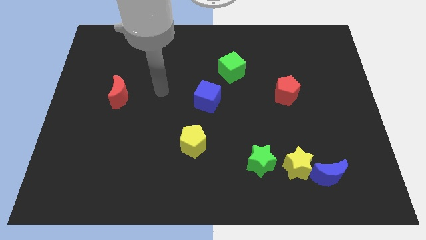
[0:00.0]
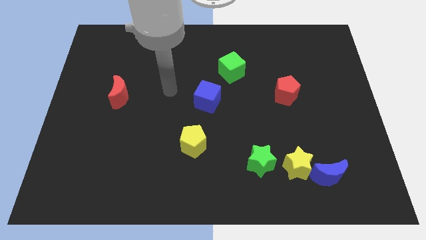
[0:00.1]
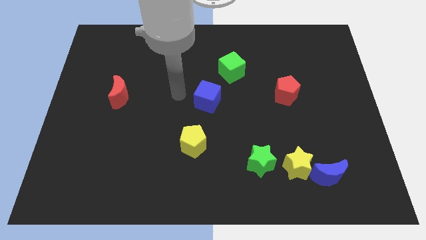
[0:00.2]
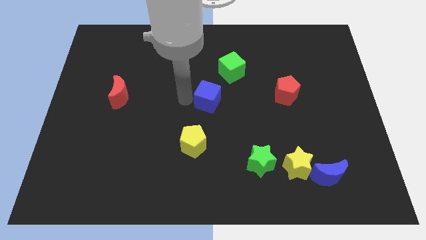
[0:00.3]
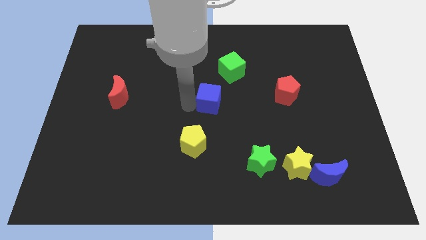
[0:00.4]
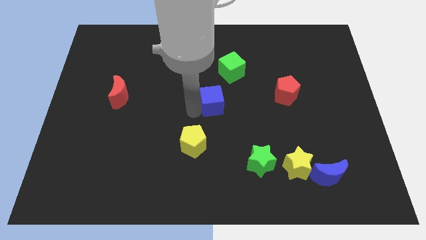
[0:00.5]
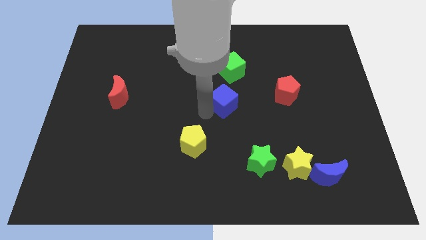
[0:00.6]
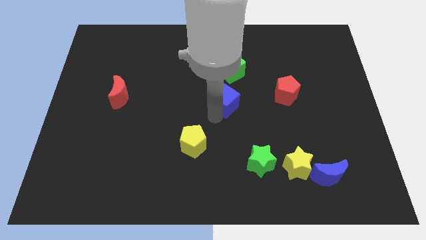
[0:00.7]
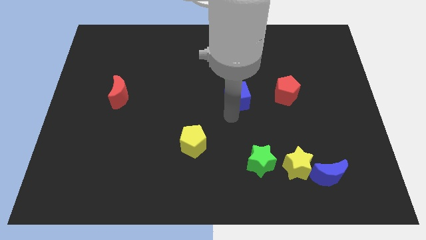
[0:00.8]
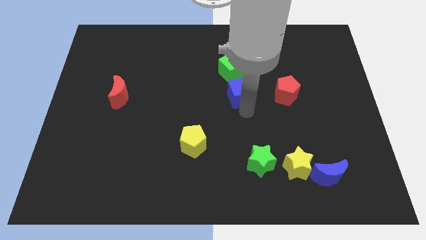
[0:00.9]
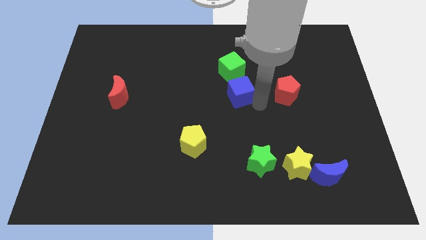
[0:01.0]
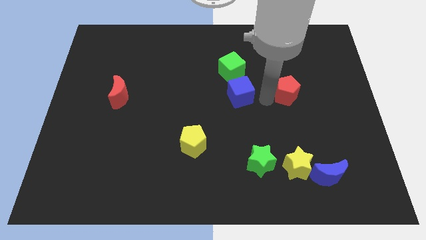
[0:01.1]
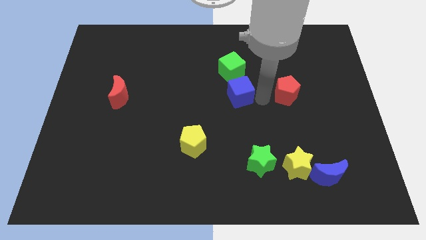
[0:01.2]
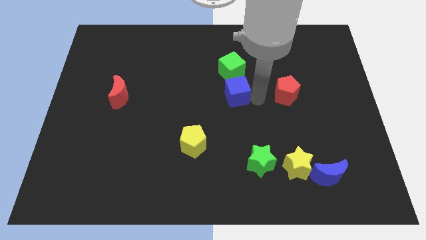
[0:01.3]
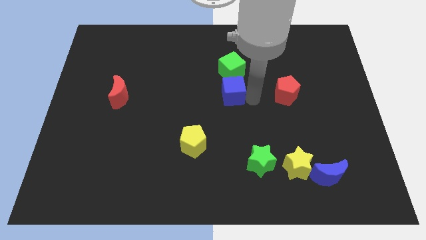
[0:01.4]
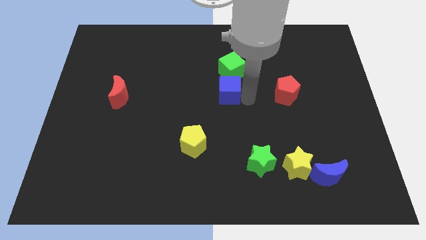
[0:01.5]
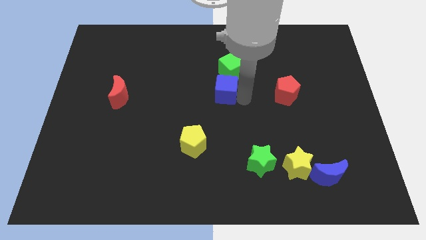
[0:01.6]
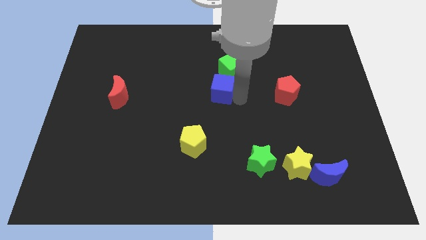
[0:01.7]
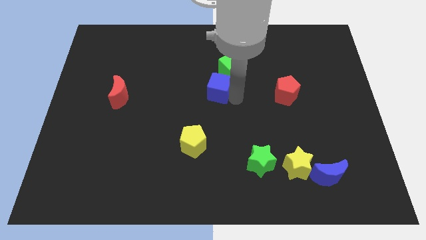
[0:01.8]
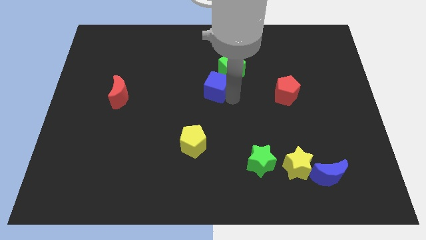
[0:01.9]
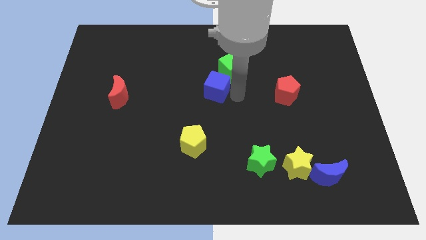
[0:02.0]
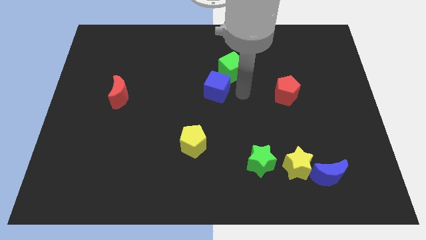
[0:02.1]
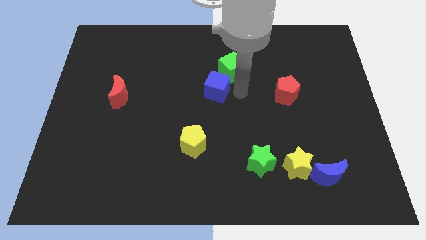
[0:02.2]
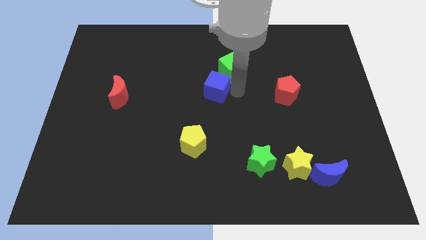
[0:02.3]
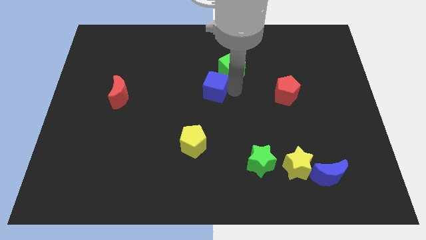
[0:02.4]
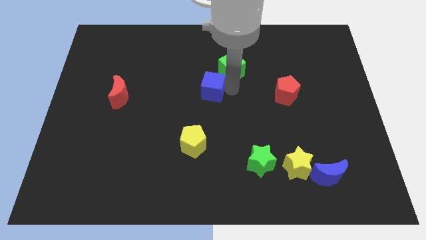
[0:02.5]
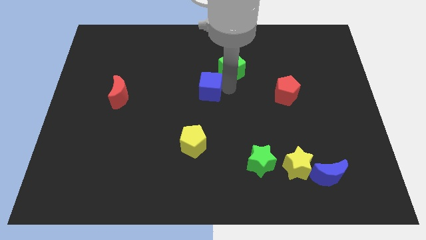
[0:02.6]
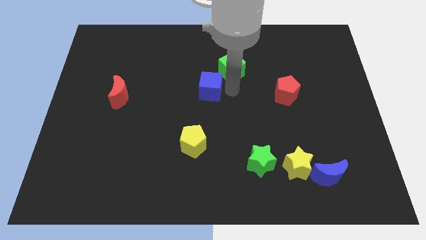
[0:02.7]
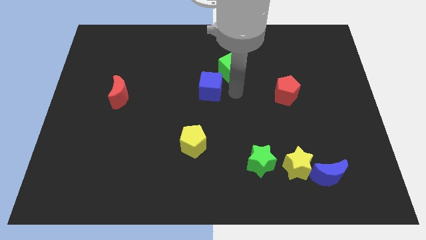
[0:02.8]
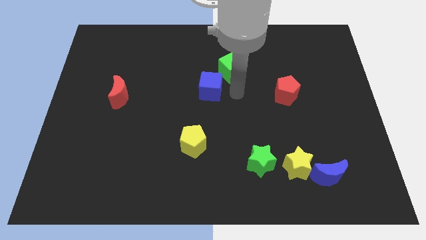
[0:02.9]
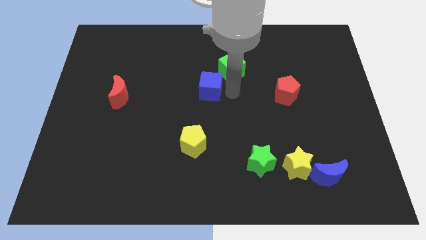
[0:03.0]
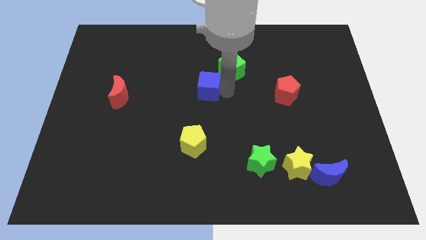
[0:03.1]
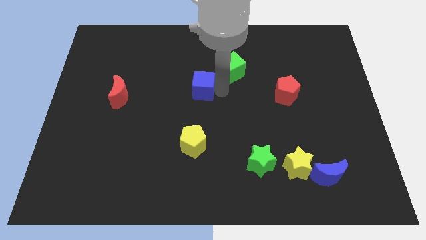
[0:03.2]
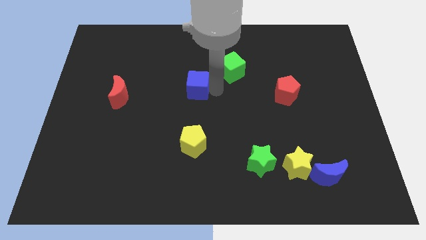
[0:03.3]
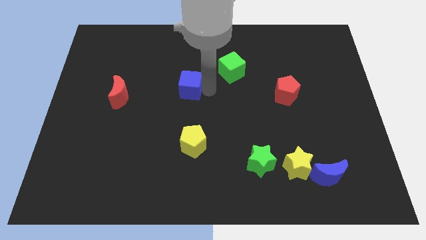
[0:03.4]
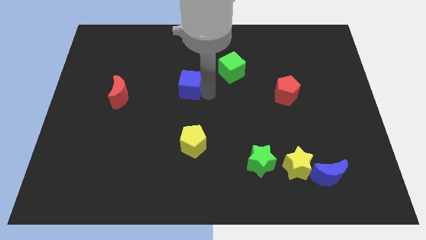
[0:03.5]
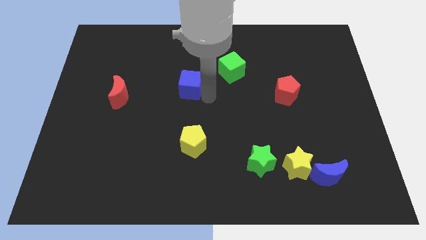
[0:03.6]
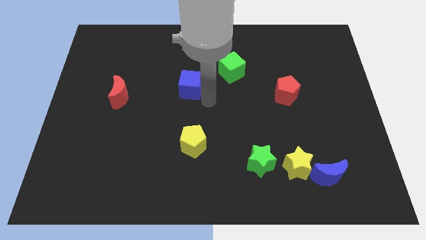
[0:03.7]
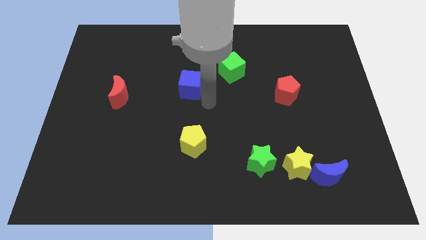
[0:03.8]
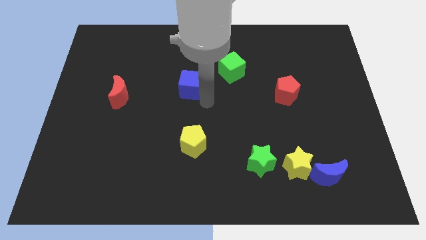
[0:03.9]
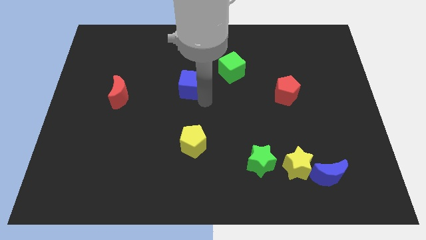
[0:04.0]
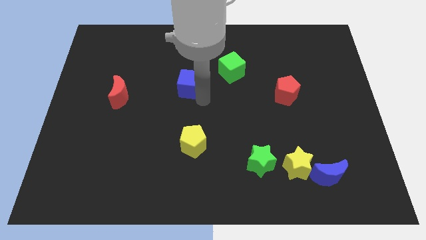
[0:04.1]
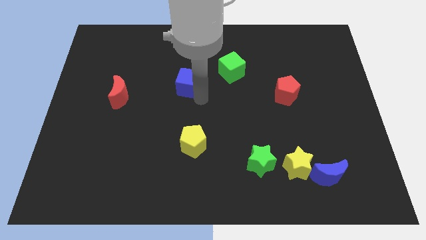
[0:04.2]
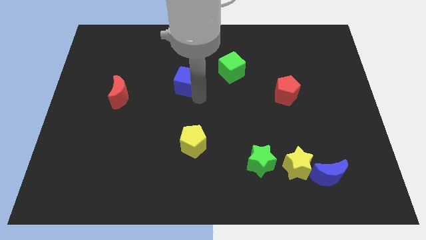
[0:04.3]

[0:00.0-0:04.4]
move the blue cube upwards and then left somewhat

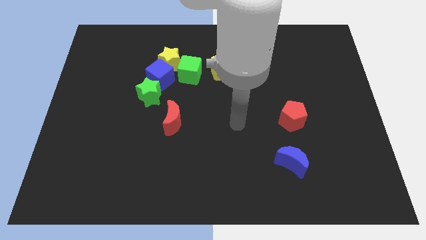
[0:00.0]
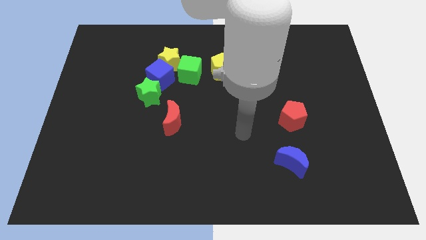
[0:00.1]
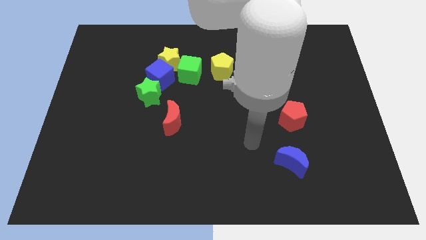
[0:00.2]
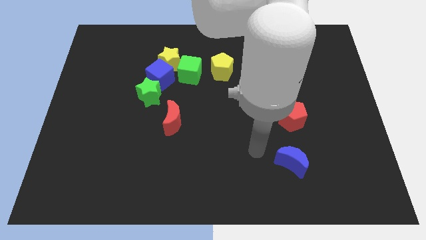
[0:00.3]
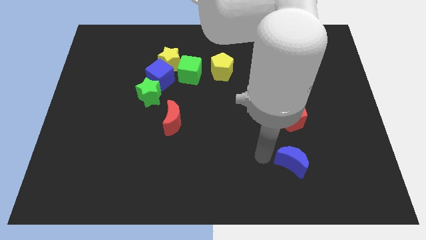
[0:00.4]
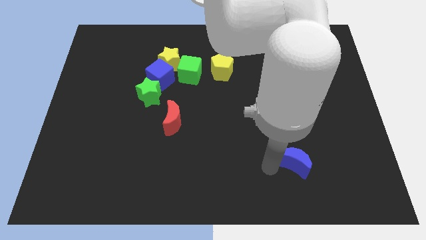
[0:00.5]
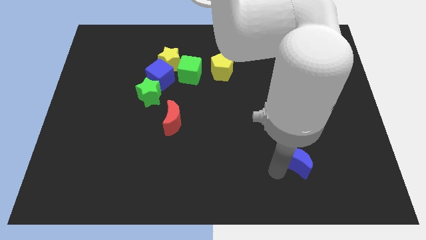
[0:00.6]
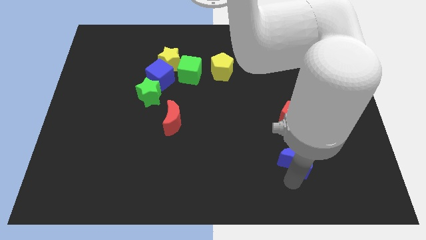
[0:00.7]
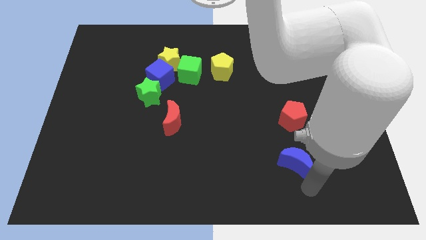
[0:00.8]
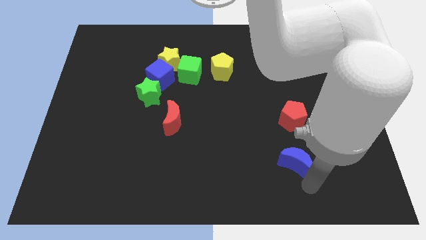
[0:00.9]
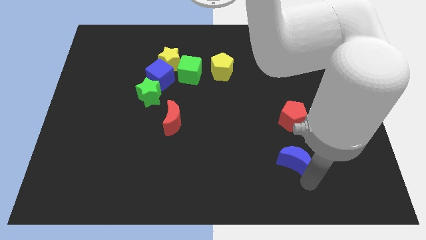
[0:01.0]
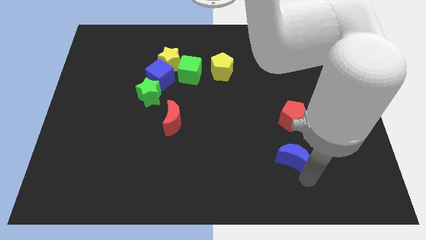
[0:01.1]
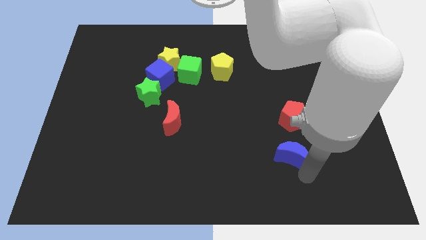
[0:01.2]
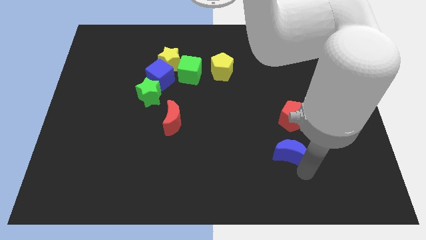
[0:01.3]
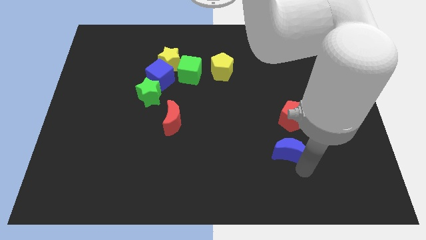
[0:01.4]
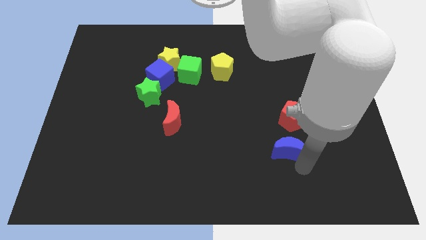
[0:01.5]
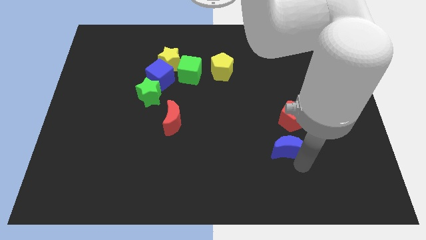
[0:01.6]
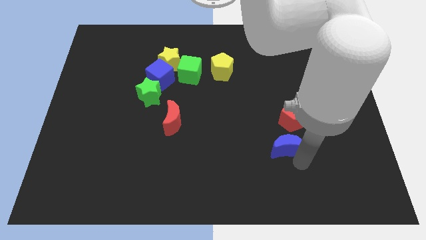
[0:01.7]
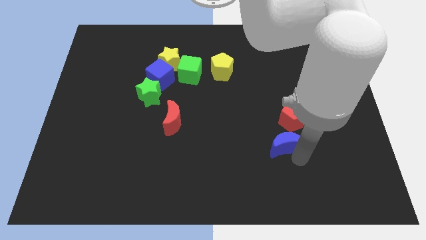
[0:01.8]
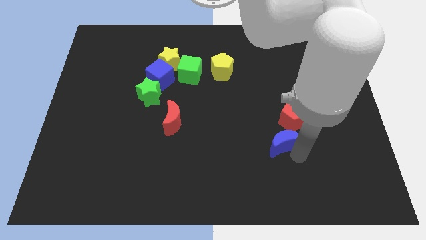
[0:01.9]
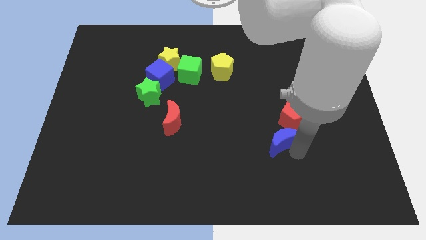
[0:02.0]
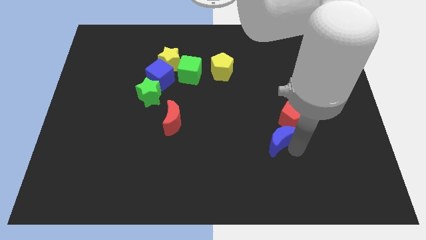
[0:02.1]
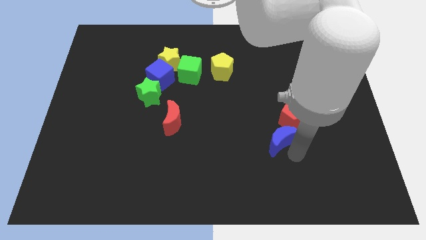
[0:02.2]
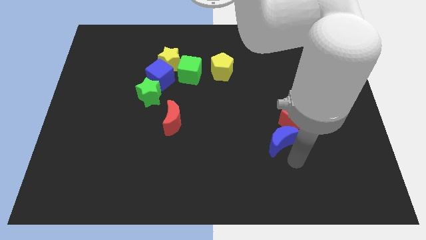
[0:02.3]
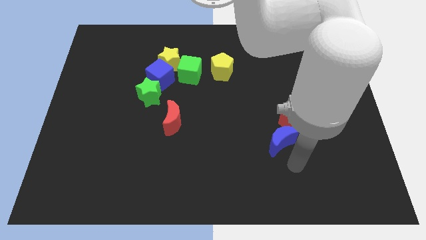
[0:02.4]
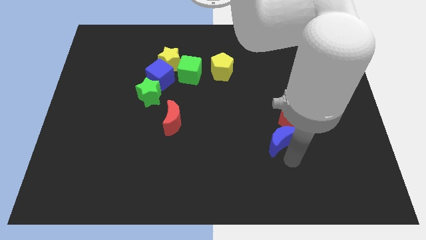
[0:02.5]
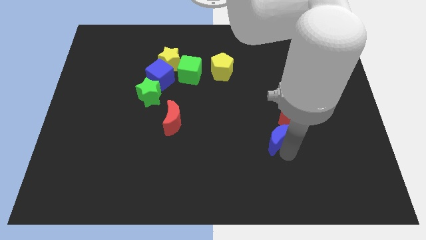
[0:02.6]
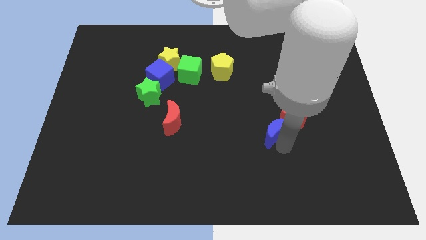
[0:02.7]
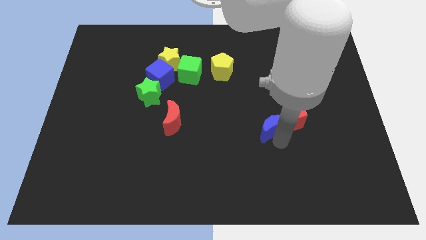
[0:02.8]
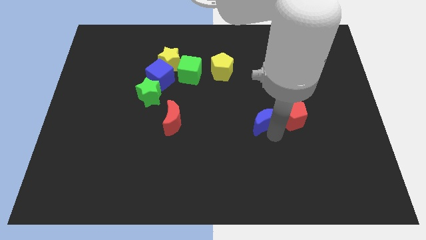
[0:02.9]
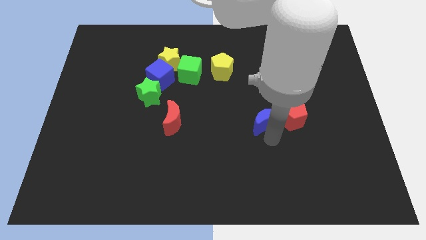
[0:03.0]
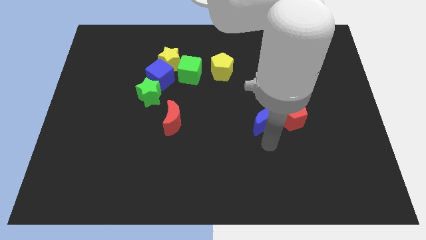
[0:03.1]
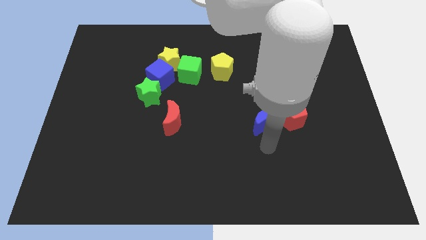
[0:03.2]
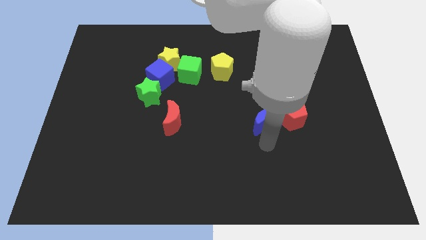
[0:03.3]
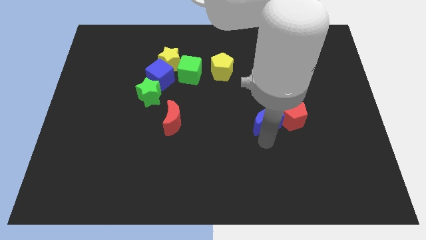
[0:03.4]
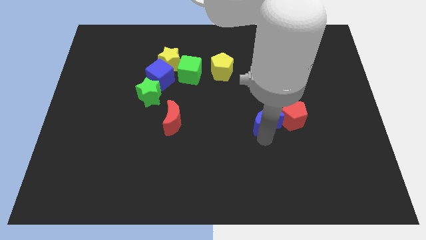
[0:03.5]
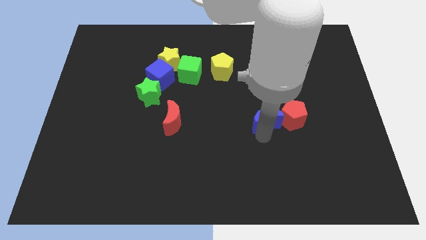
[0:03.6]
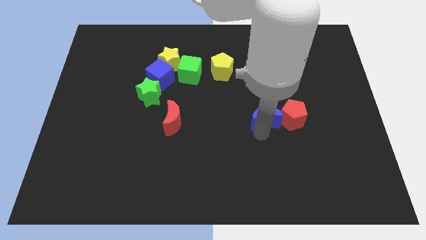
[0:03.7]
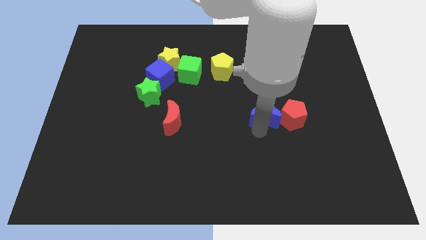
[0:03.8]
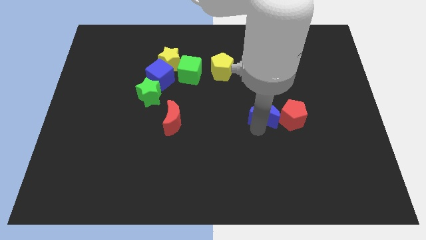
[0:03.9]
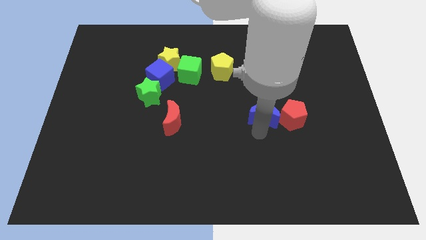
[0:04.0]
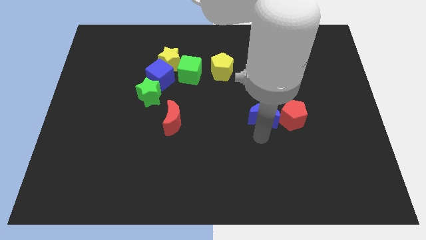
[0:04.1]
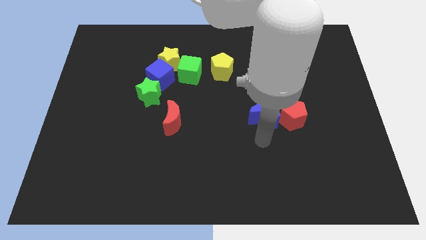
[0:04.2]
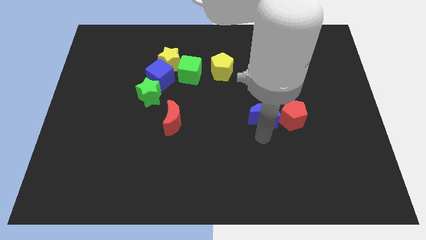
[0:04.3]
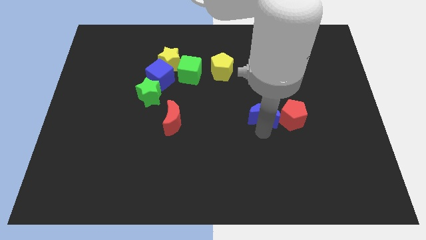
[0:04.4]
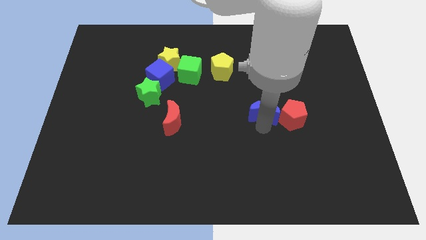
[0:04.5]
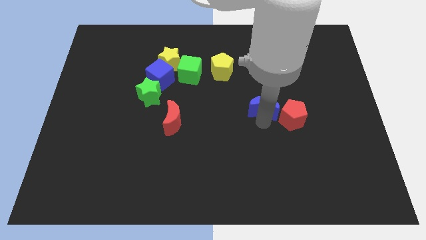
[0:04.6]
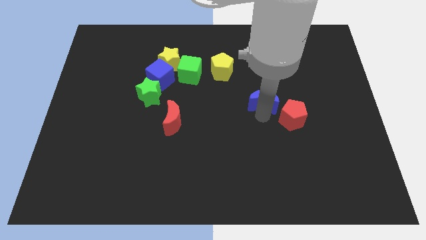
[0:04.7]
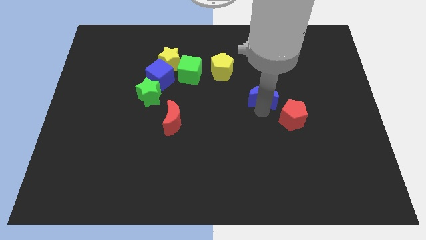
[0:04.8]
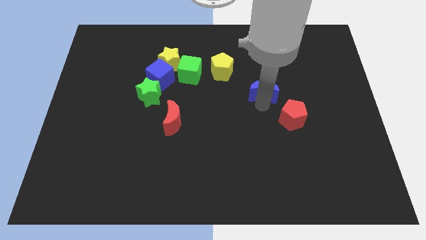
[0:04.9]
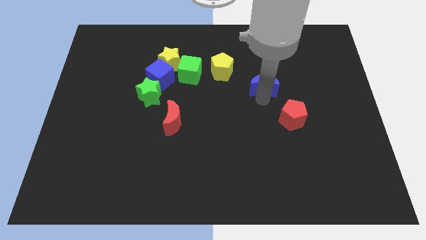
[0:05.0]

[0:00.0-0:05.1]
slide the blue moon upwards
